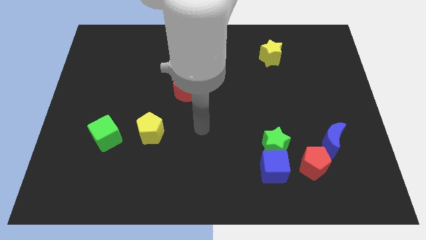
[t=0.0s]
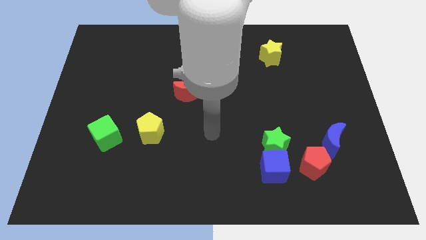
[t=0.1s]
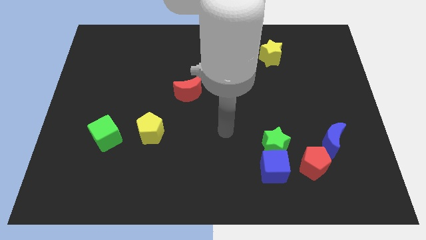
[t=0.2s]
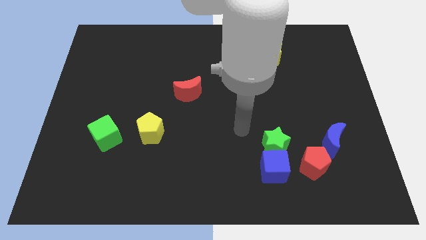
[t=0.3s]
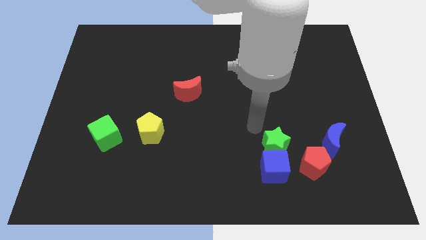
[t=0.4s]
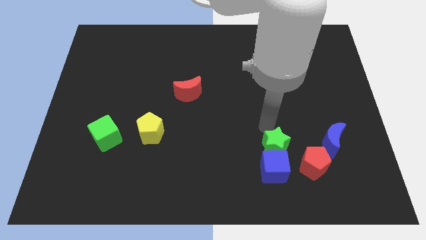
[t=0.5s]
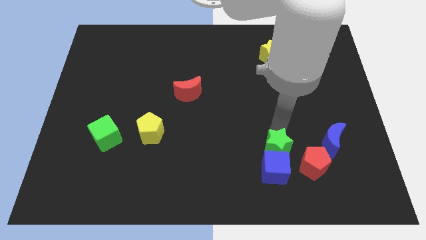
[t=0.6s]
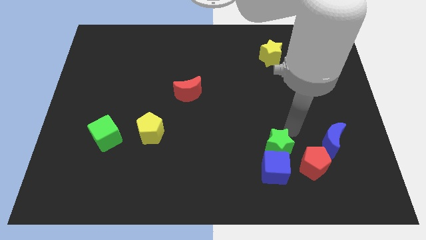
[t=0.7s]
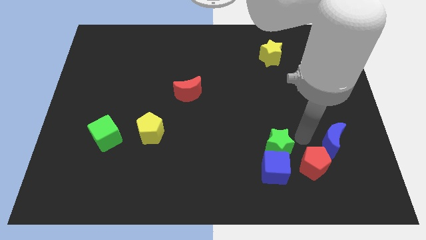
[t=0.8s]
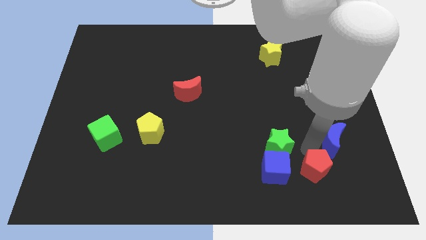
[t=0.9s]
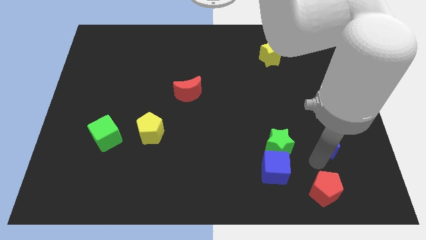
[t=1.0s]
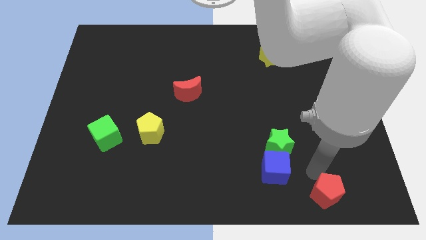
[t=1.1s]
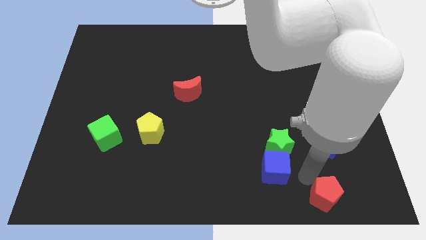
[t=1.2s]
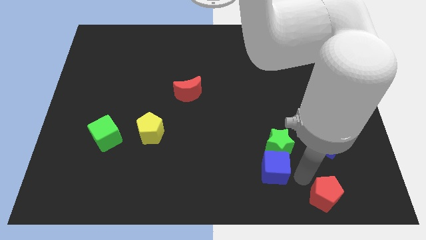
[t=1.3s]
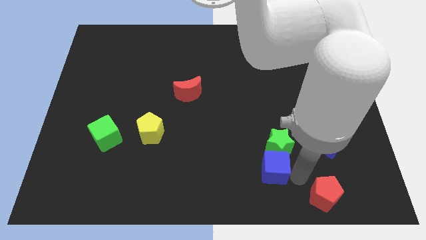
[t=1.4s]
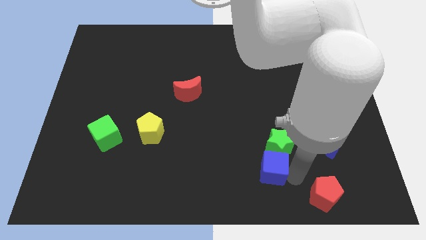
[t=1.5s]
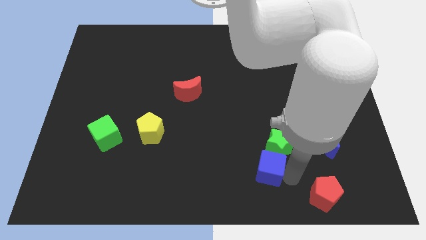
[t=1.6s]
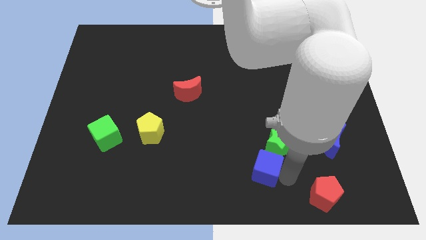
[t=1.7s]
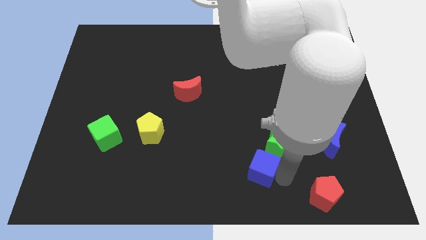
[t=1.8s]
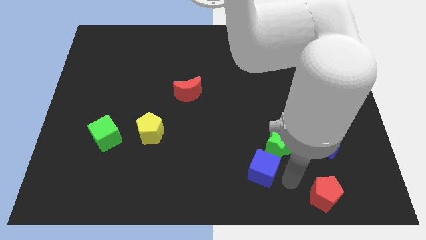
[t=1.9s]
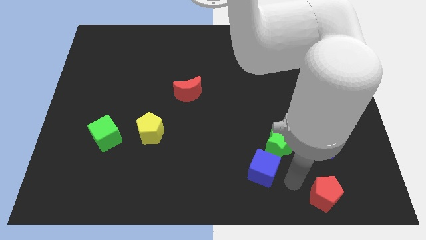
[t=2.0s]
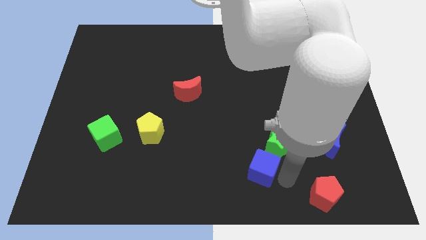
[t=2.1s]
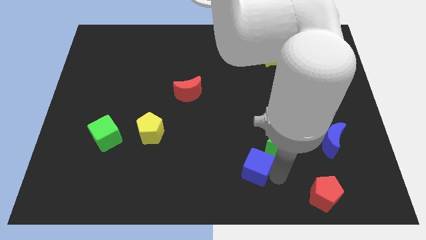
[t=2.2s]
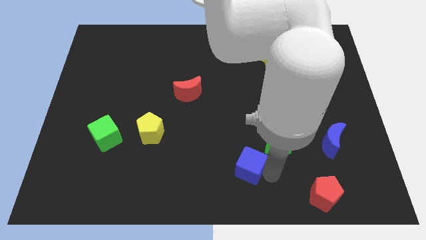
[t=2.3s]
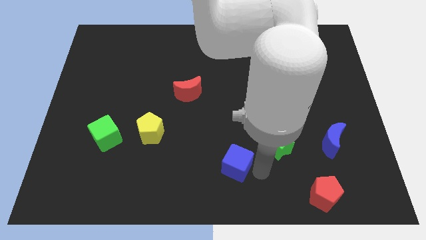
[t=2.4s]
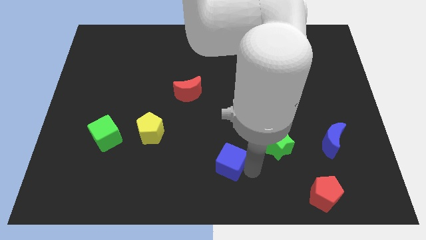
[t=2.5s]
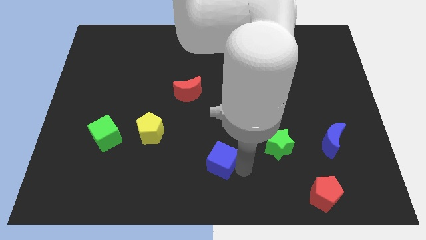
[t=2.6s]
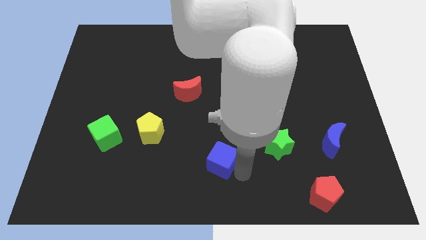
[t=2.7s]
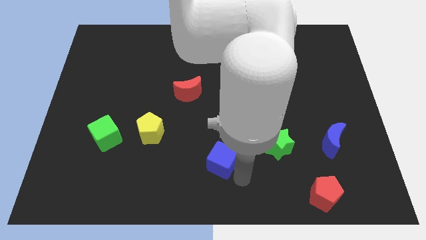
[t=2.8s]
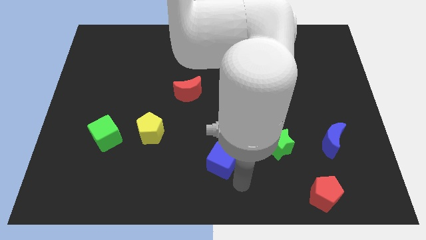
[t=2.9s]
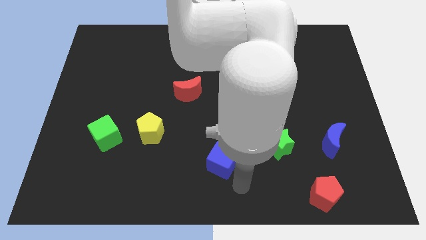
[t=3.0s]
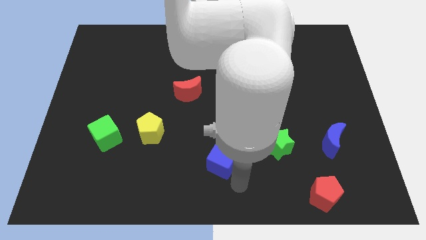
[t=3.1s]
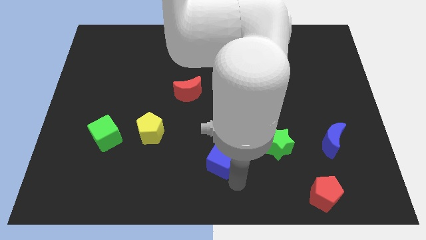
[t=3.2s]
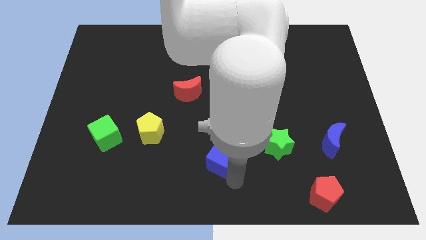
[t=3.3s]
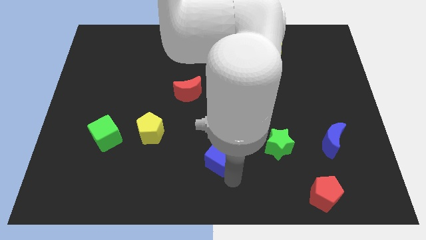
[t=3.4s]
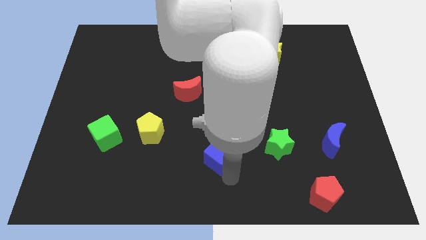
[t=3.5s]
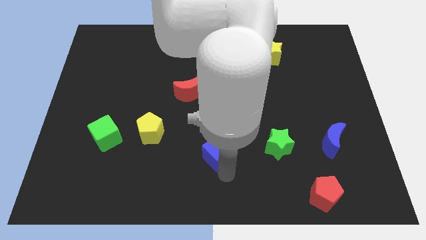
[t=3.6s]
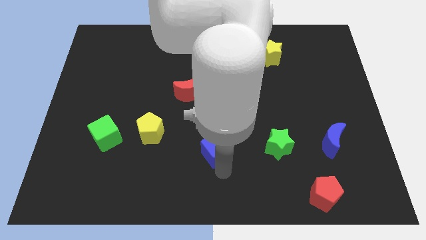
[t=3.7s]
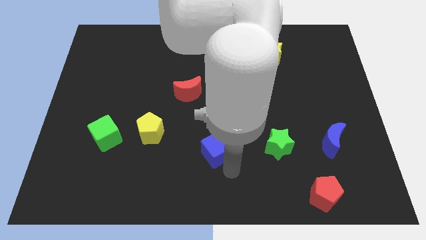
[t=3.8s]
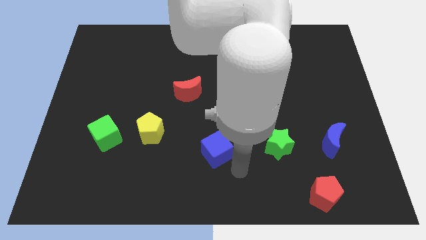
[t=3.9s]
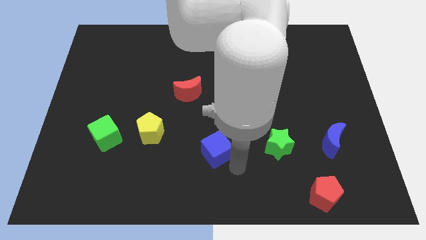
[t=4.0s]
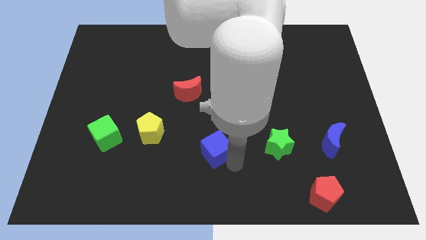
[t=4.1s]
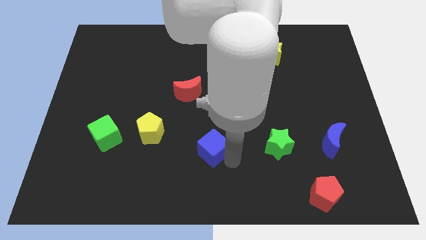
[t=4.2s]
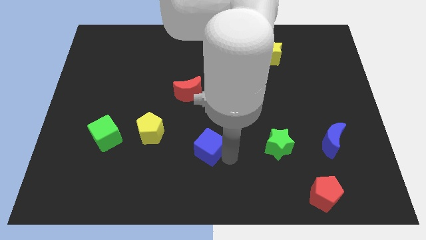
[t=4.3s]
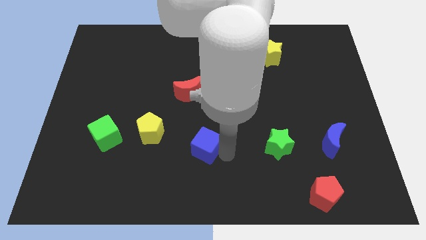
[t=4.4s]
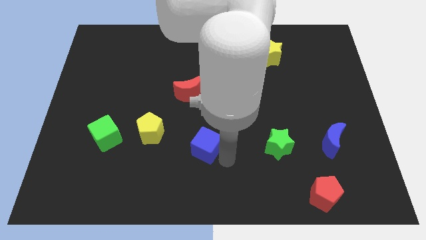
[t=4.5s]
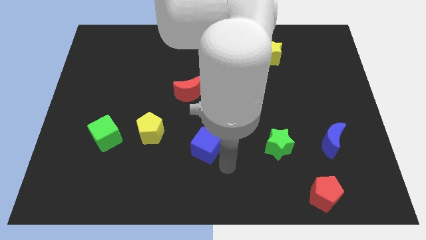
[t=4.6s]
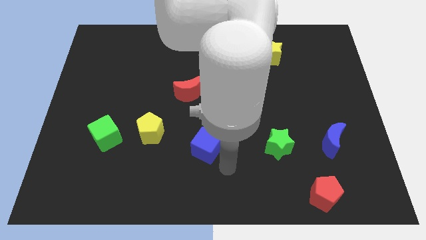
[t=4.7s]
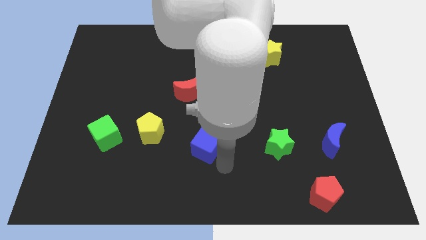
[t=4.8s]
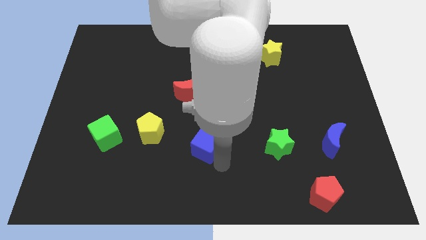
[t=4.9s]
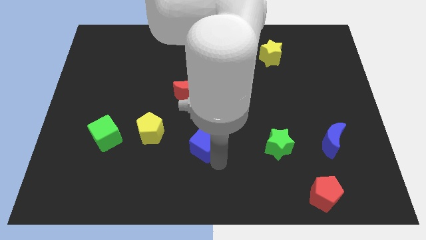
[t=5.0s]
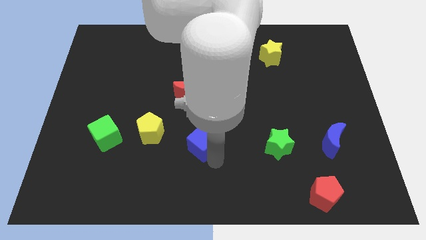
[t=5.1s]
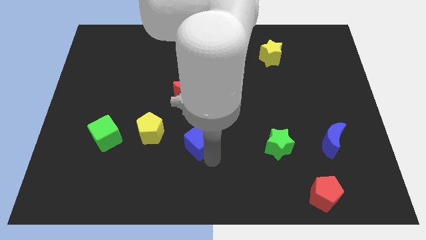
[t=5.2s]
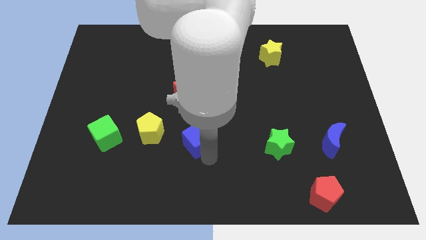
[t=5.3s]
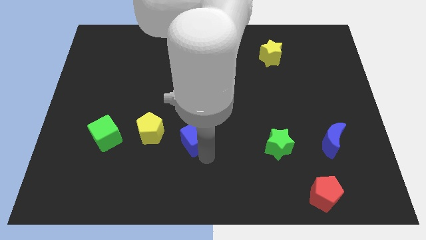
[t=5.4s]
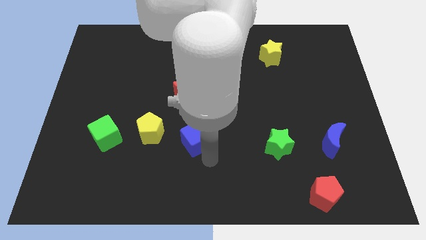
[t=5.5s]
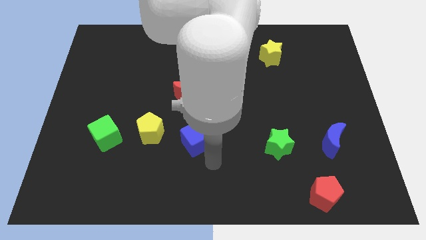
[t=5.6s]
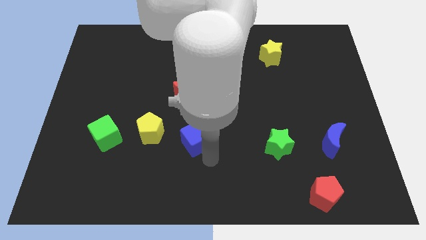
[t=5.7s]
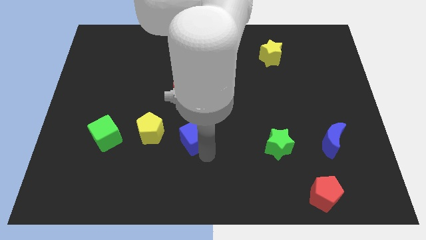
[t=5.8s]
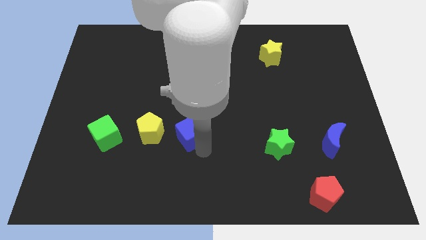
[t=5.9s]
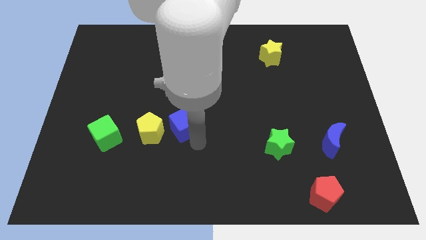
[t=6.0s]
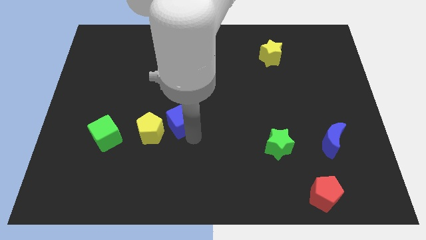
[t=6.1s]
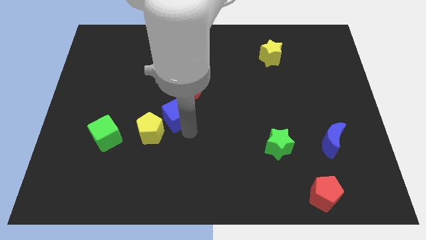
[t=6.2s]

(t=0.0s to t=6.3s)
slide the blue cube to the bottom left of the red moon
